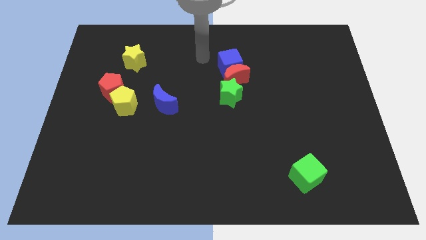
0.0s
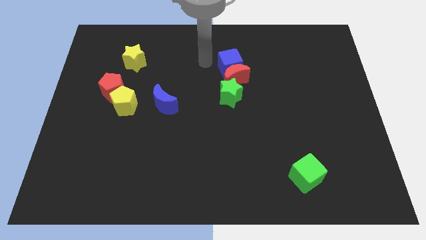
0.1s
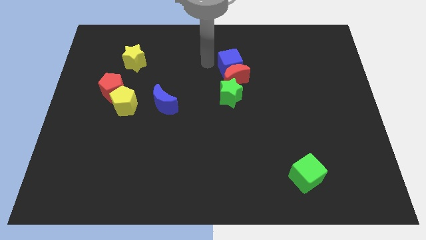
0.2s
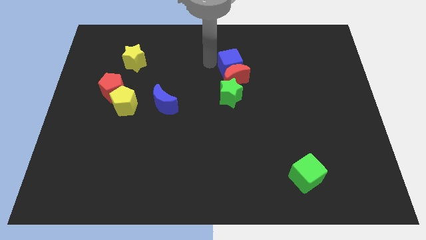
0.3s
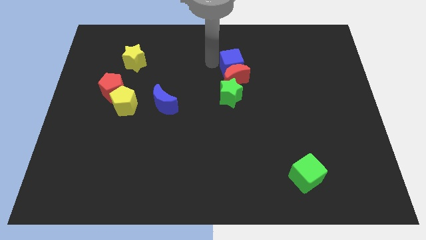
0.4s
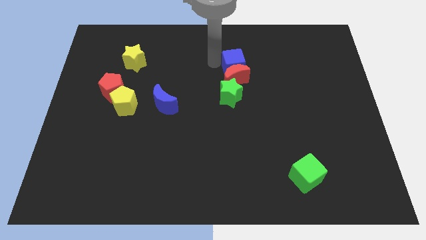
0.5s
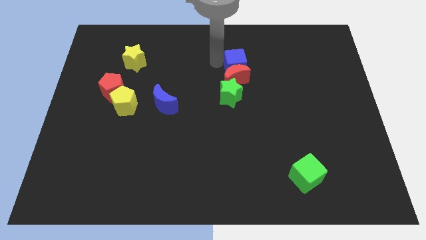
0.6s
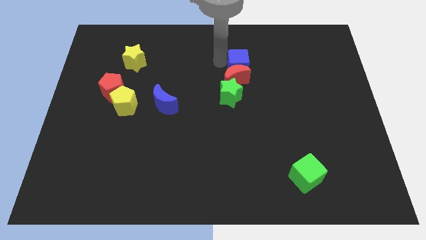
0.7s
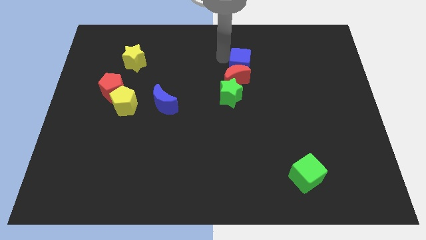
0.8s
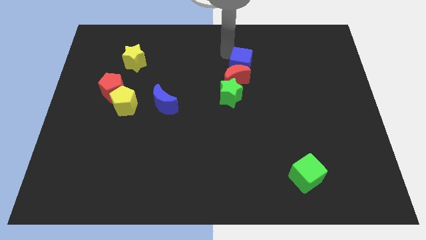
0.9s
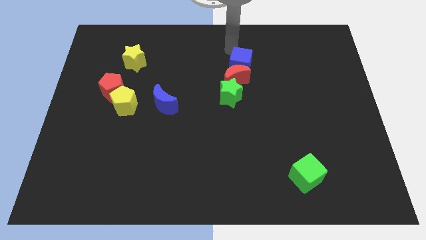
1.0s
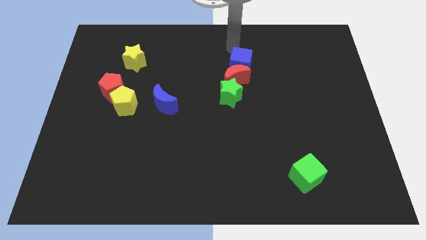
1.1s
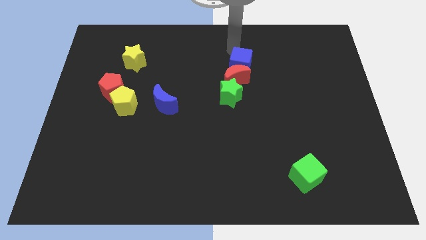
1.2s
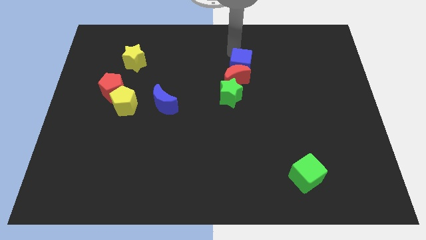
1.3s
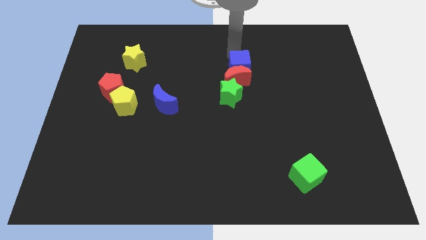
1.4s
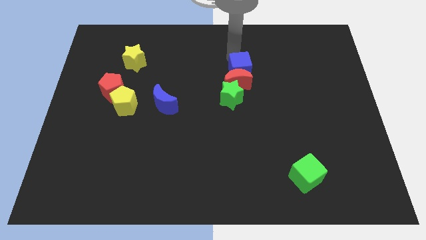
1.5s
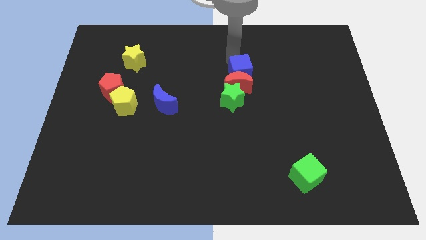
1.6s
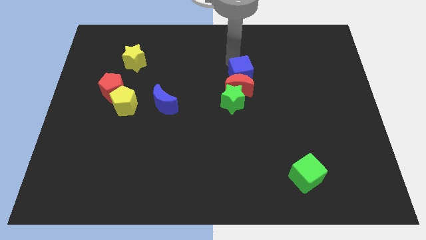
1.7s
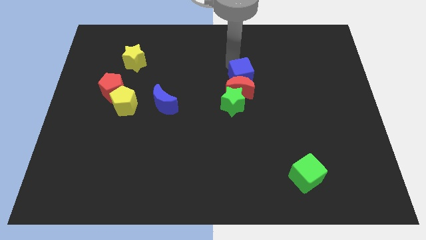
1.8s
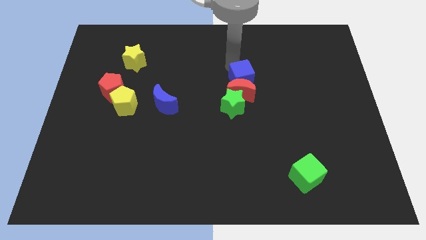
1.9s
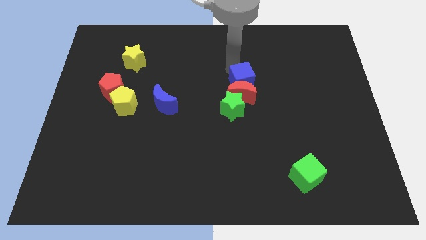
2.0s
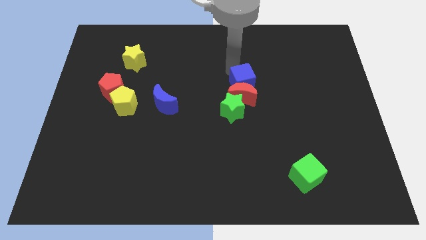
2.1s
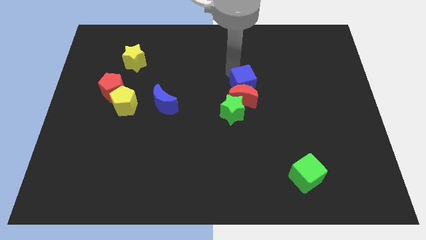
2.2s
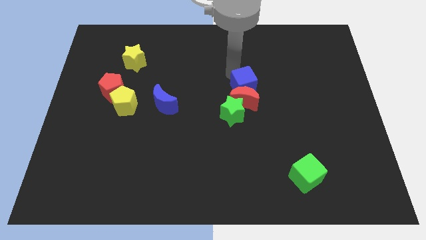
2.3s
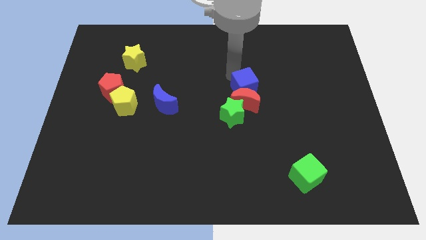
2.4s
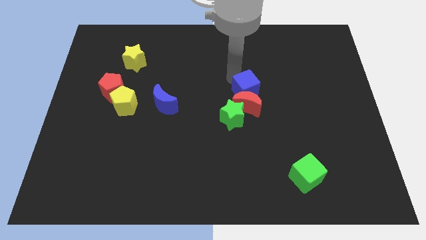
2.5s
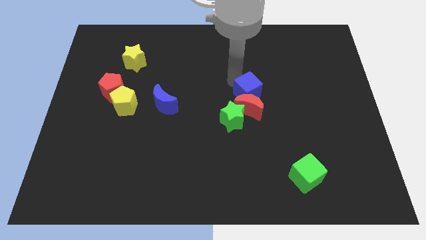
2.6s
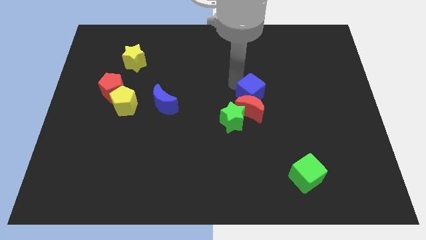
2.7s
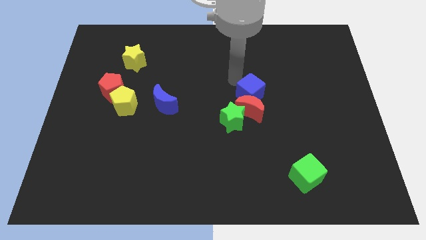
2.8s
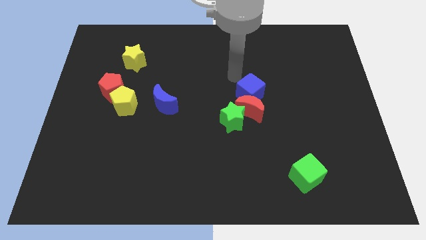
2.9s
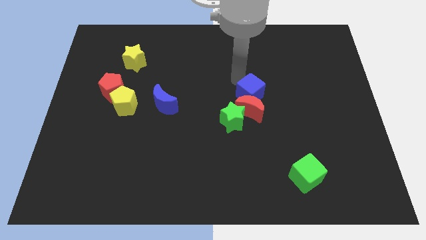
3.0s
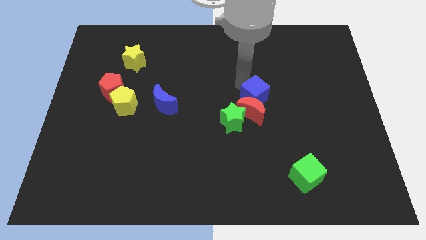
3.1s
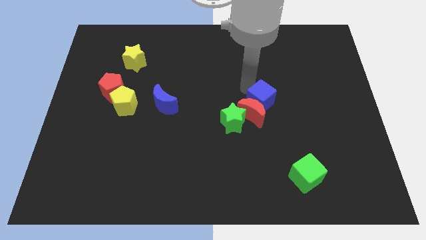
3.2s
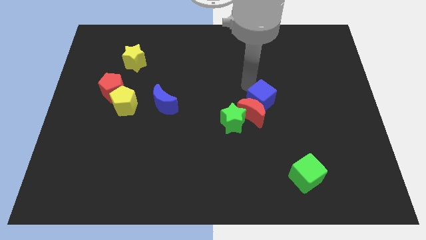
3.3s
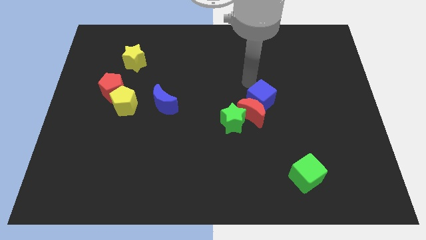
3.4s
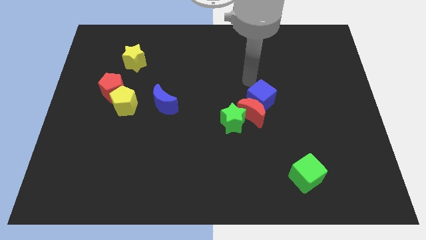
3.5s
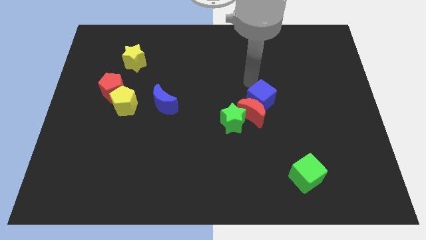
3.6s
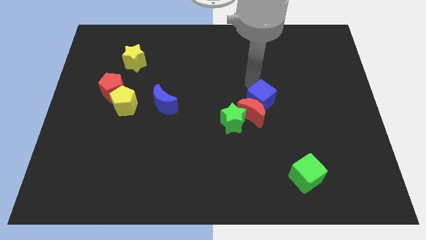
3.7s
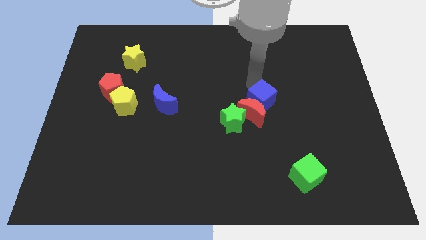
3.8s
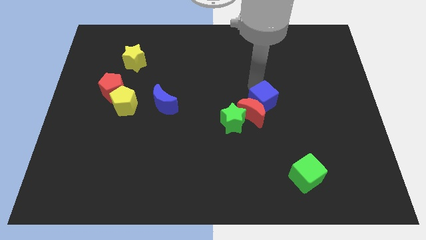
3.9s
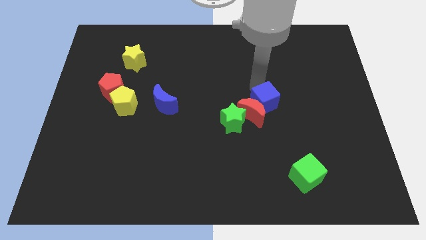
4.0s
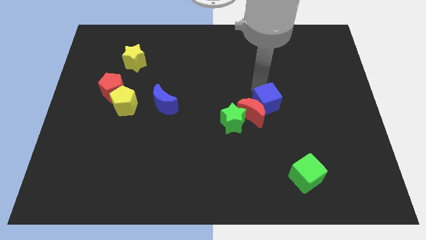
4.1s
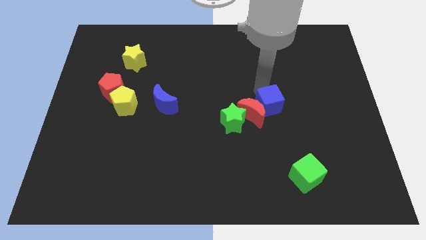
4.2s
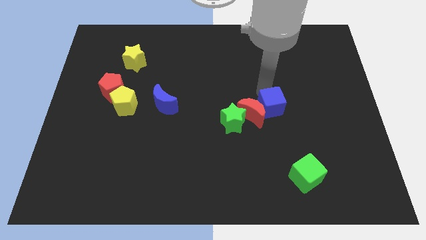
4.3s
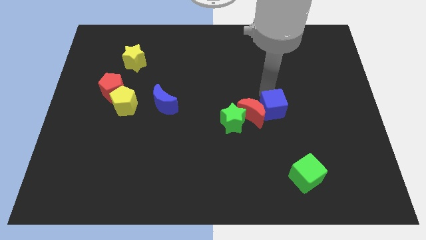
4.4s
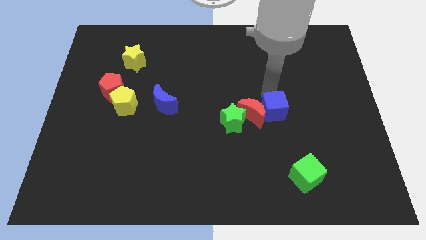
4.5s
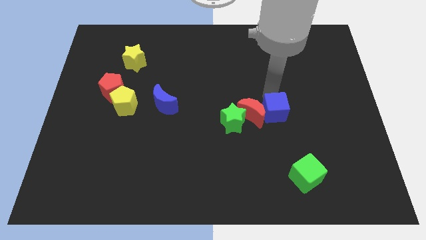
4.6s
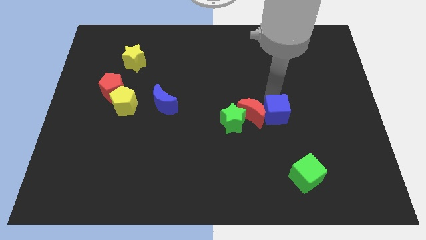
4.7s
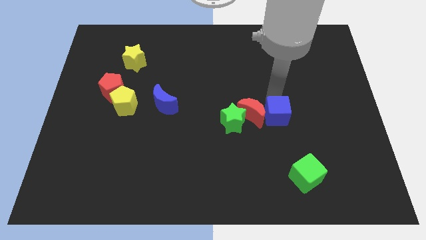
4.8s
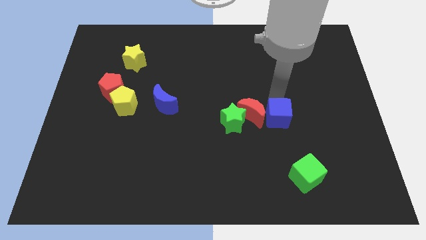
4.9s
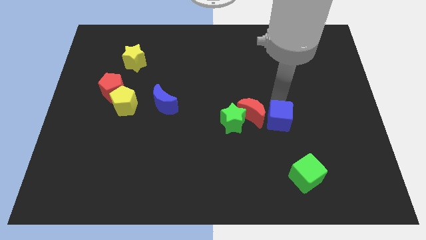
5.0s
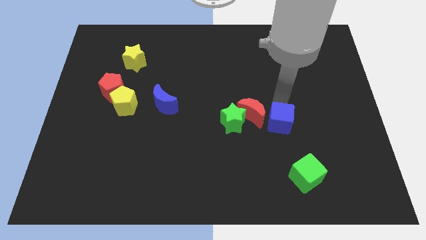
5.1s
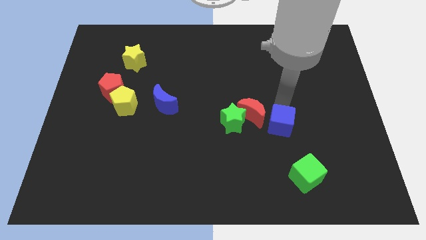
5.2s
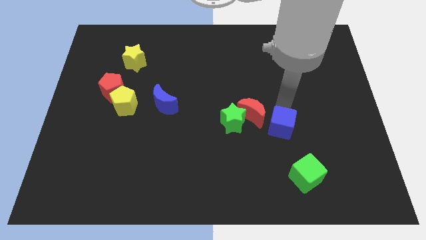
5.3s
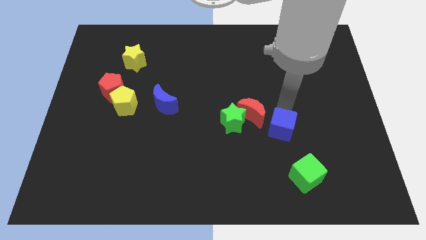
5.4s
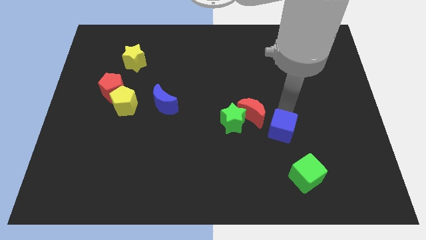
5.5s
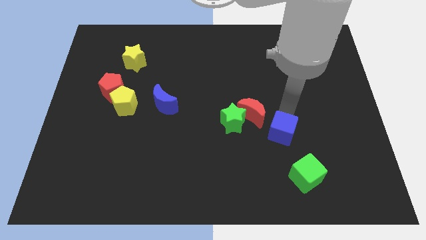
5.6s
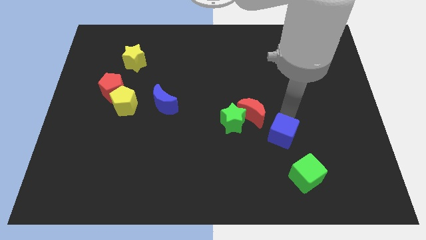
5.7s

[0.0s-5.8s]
move the blue cube diagonally up and to the left of the green cube
